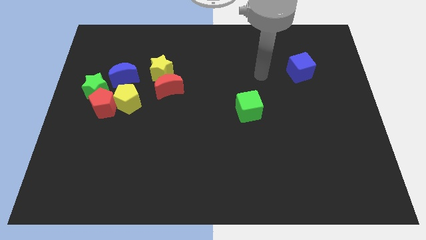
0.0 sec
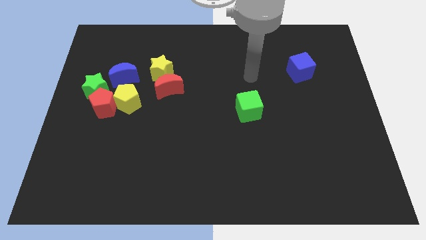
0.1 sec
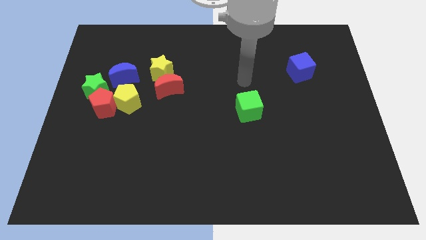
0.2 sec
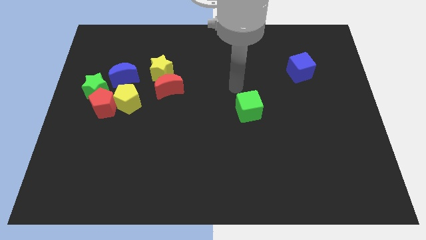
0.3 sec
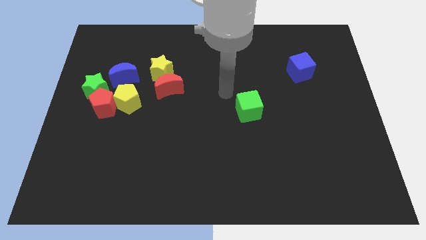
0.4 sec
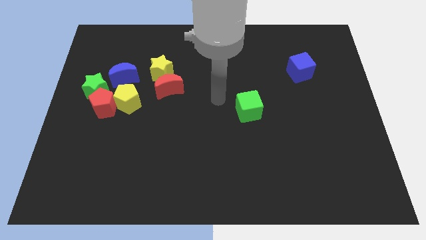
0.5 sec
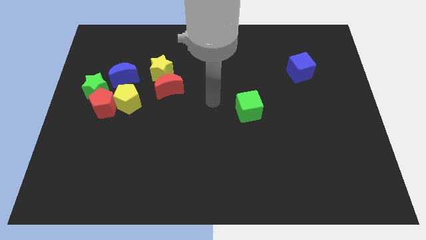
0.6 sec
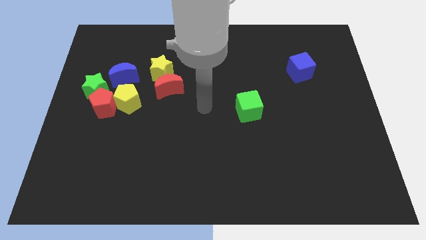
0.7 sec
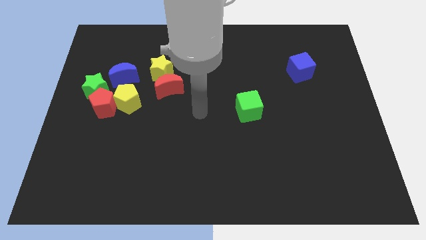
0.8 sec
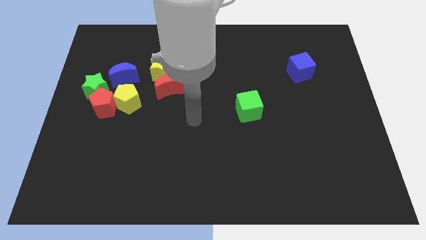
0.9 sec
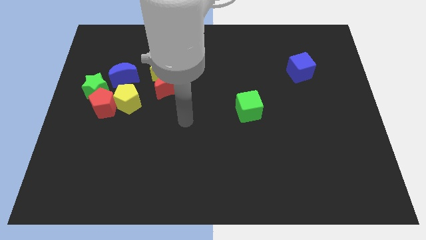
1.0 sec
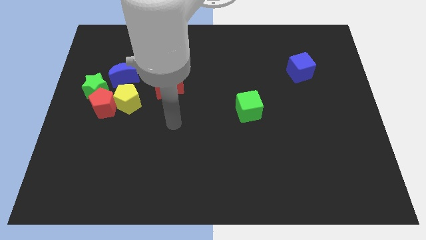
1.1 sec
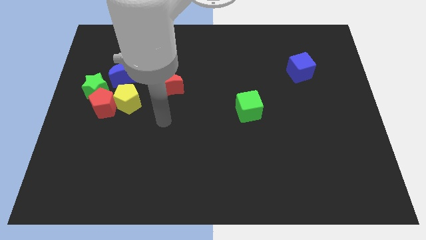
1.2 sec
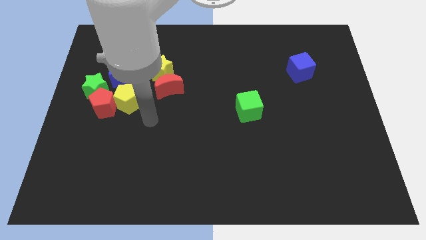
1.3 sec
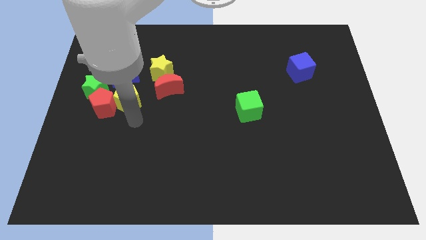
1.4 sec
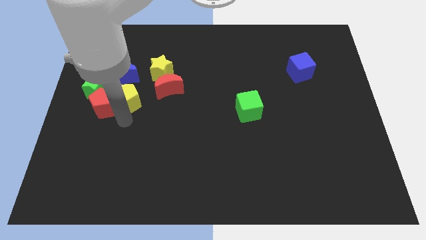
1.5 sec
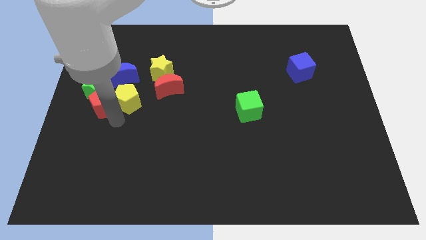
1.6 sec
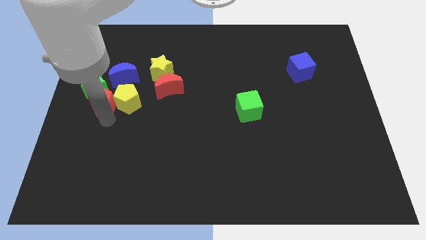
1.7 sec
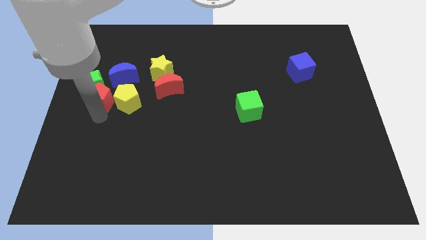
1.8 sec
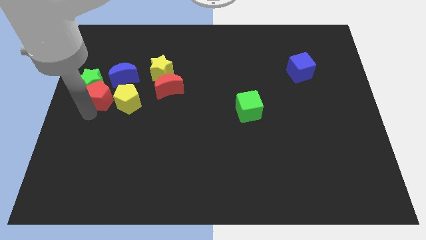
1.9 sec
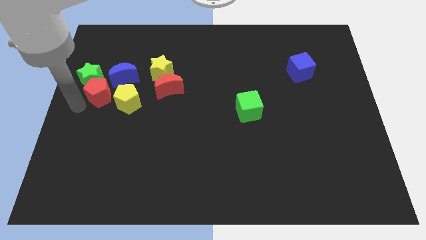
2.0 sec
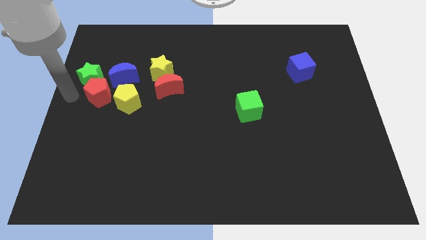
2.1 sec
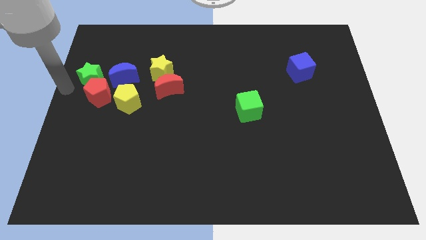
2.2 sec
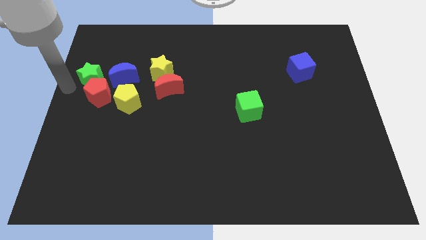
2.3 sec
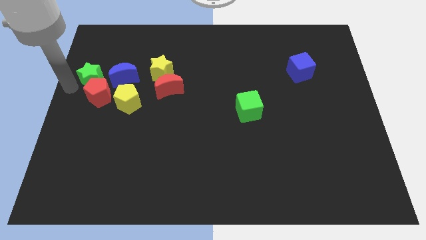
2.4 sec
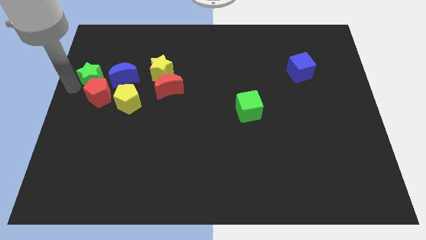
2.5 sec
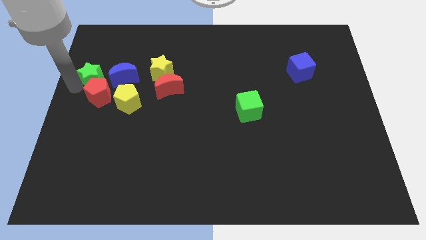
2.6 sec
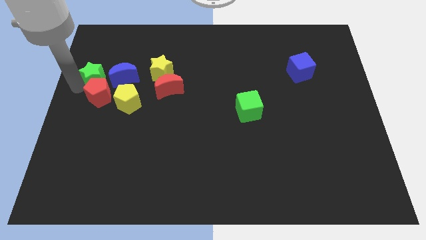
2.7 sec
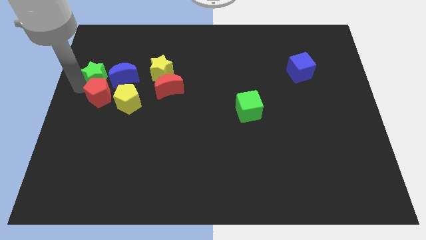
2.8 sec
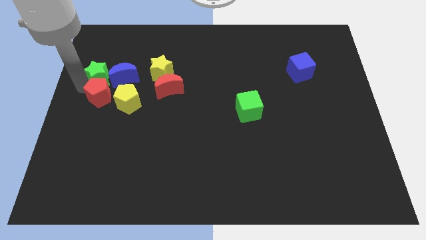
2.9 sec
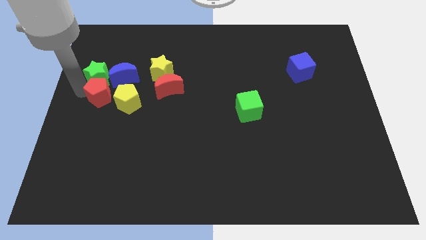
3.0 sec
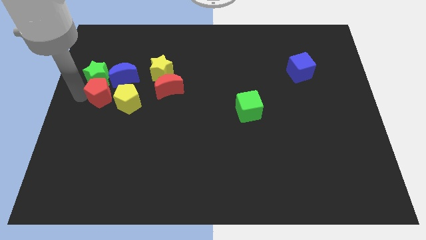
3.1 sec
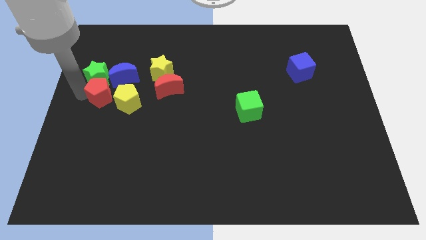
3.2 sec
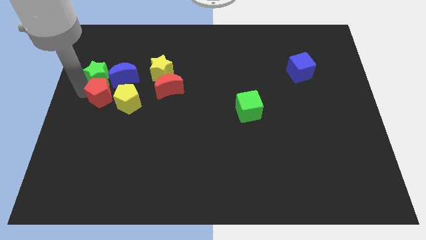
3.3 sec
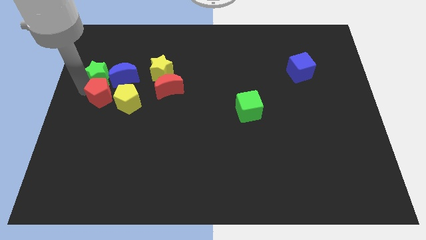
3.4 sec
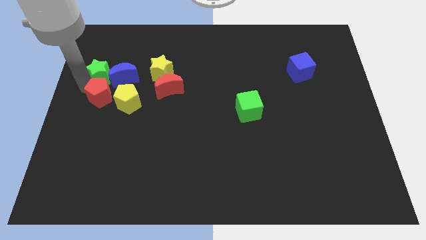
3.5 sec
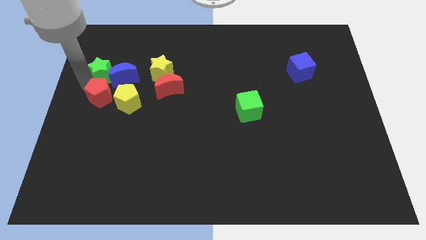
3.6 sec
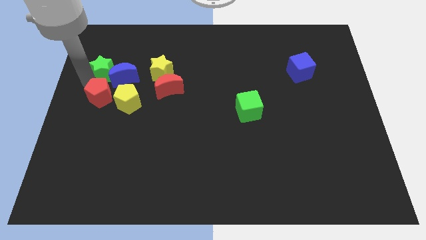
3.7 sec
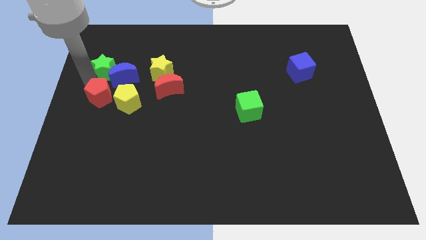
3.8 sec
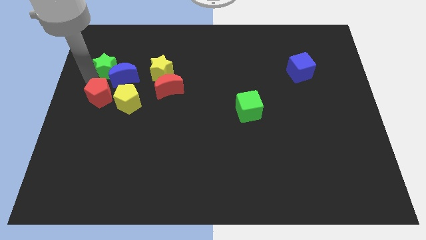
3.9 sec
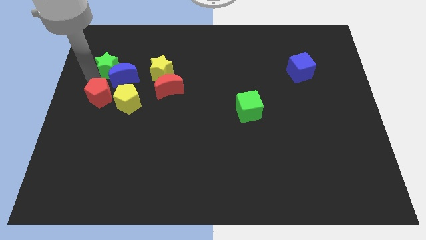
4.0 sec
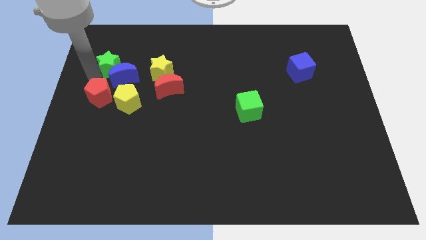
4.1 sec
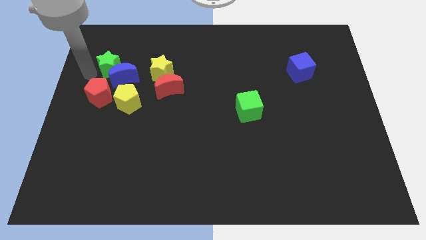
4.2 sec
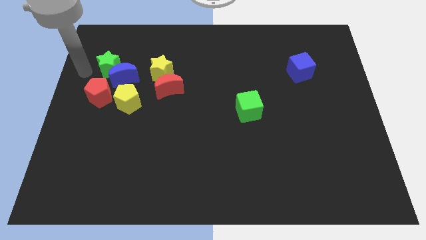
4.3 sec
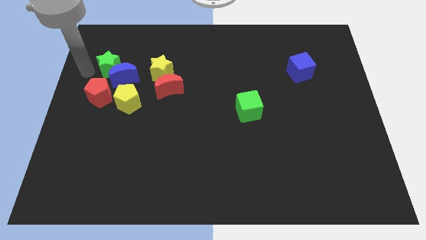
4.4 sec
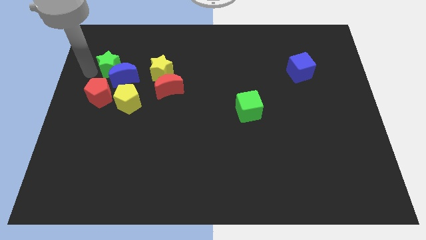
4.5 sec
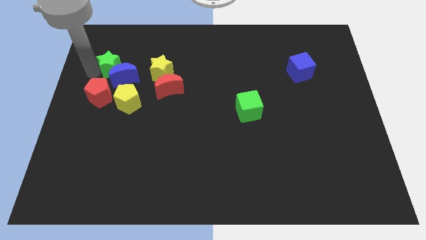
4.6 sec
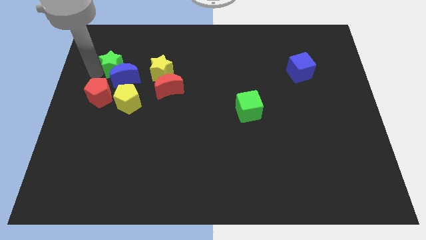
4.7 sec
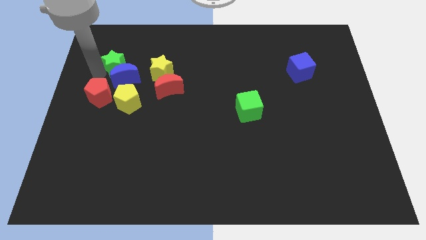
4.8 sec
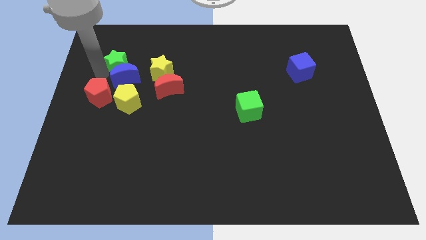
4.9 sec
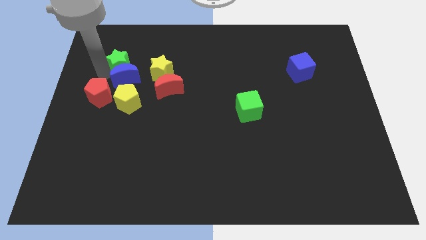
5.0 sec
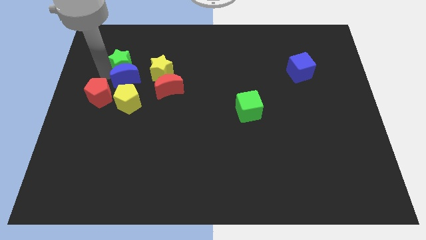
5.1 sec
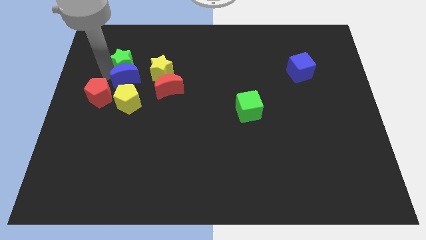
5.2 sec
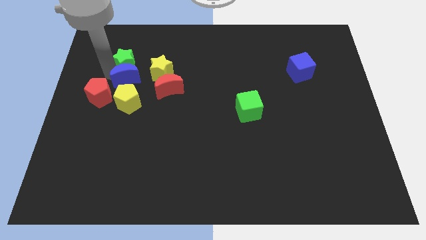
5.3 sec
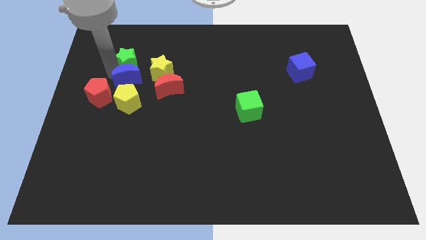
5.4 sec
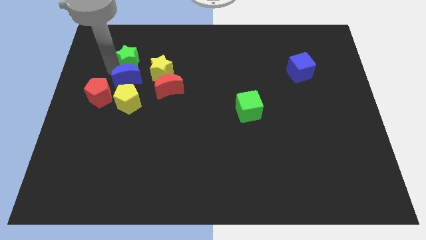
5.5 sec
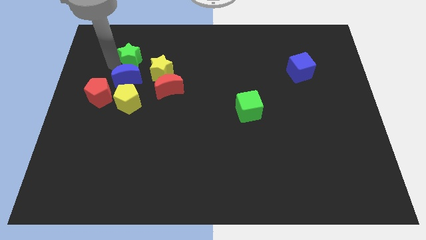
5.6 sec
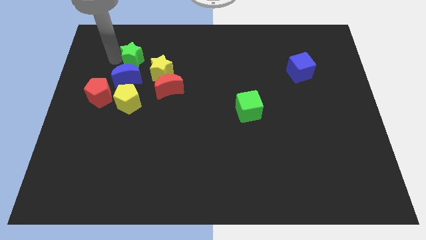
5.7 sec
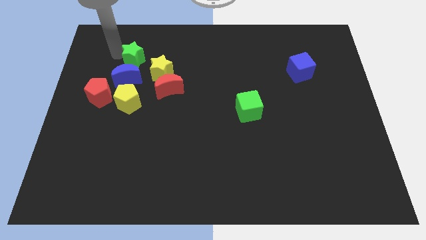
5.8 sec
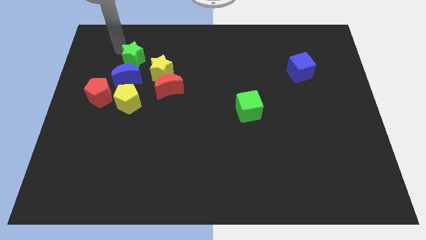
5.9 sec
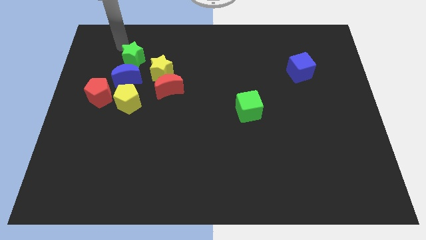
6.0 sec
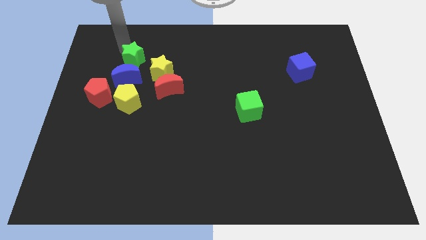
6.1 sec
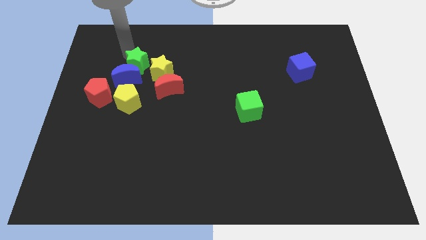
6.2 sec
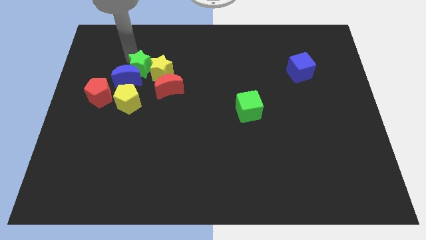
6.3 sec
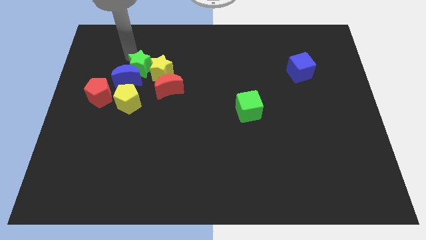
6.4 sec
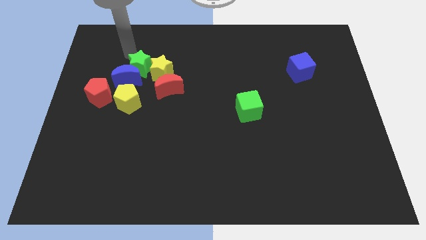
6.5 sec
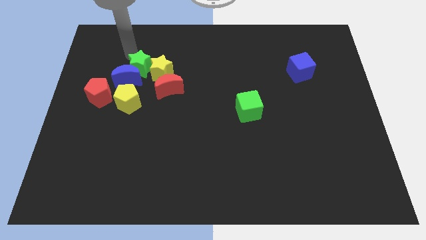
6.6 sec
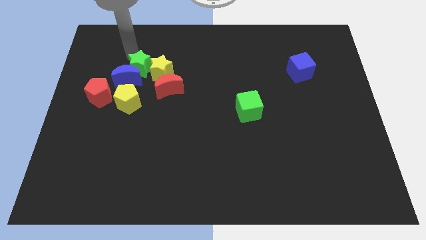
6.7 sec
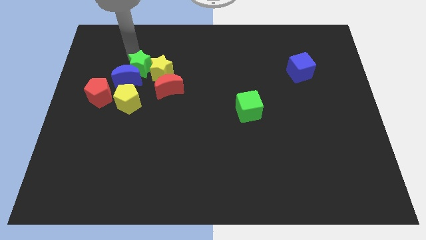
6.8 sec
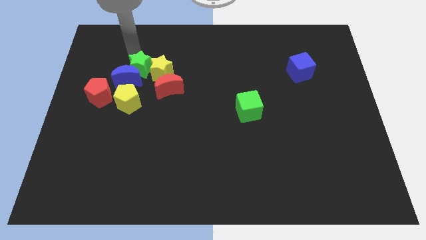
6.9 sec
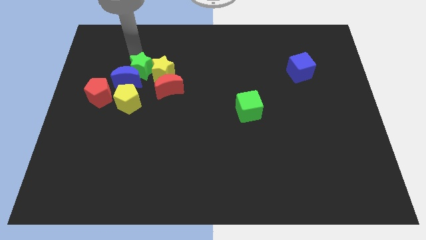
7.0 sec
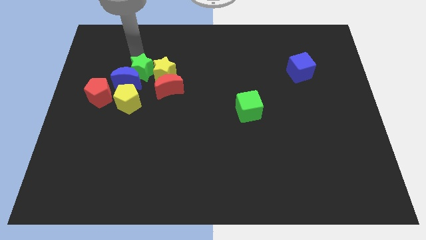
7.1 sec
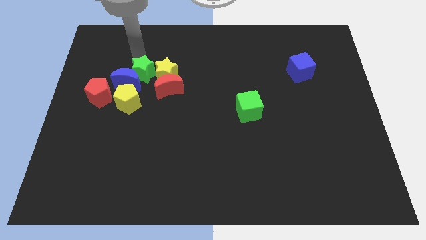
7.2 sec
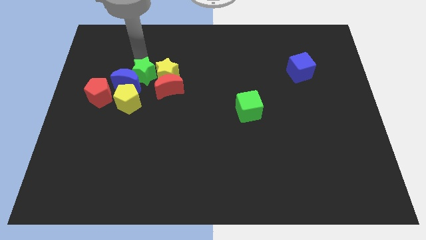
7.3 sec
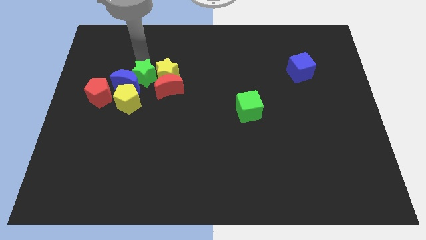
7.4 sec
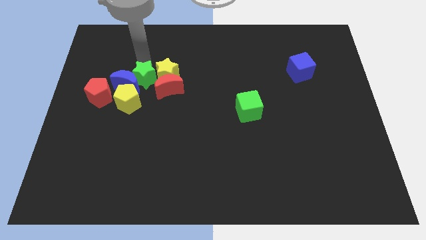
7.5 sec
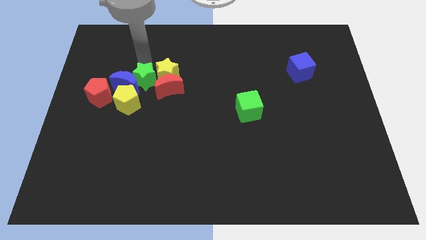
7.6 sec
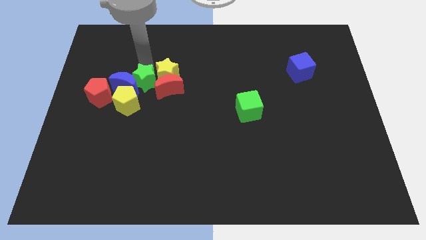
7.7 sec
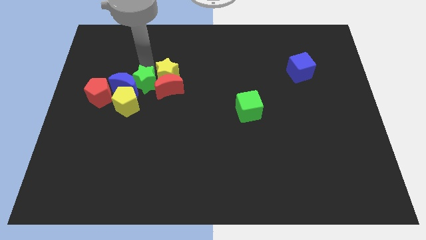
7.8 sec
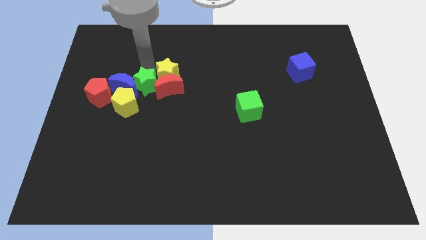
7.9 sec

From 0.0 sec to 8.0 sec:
slide the green star to the bottom left of the red moon
